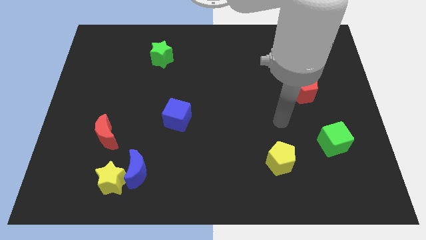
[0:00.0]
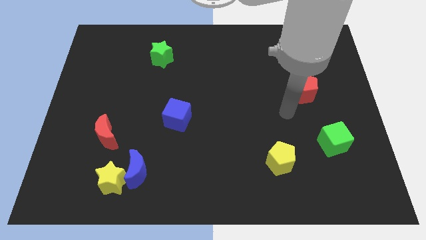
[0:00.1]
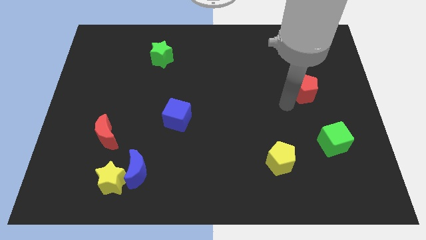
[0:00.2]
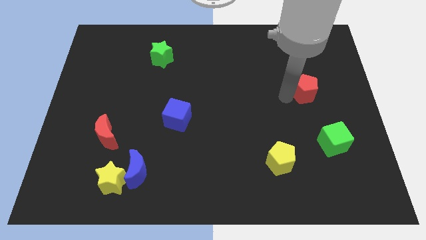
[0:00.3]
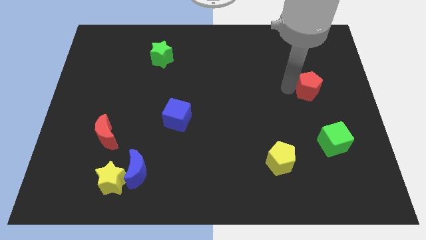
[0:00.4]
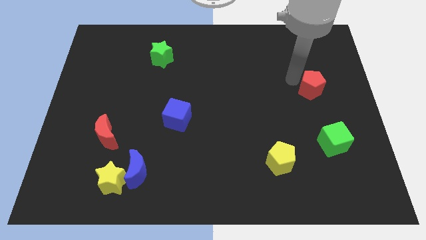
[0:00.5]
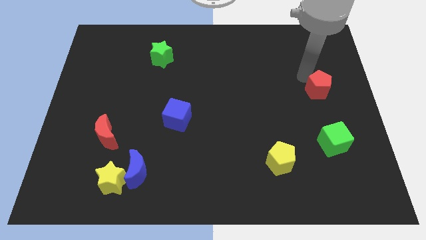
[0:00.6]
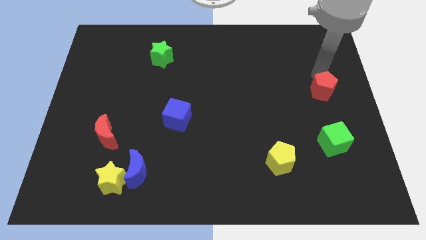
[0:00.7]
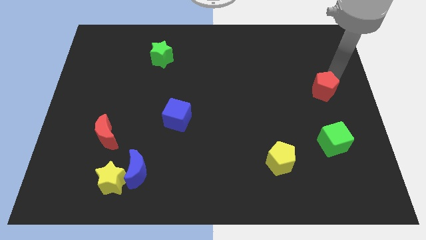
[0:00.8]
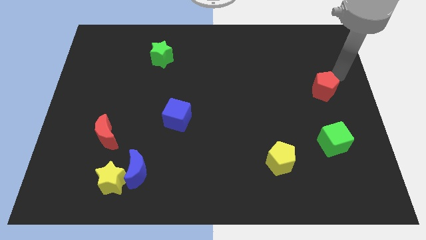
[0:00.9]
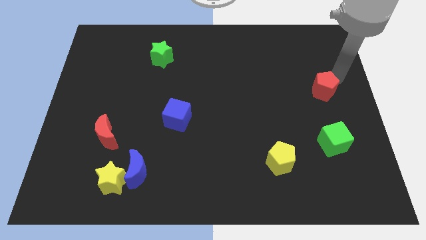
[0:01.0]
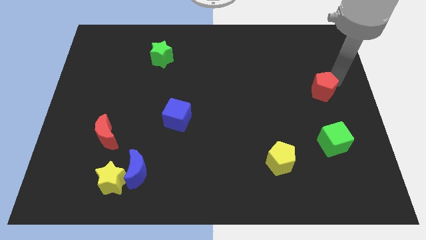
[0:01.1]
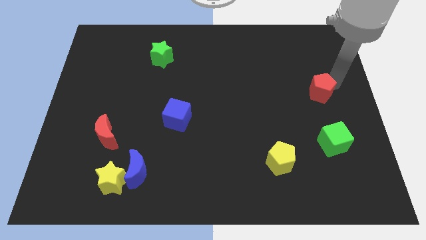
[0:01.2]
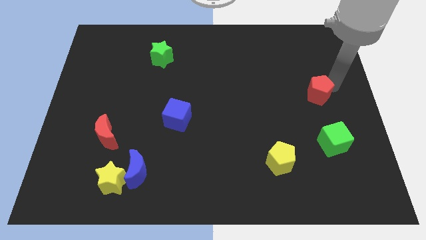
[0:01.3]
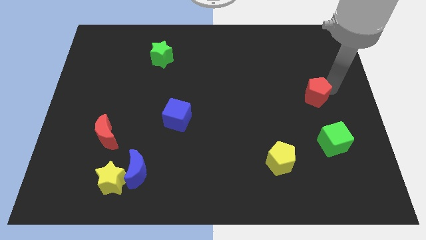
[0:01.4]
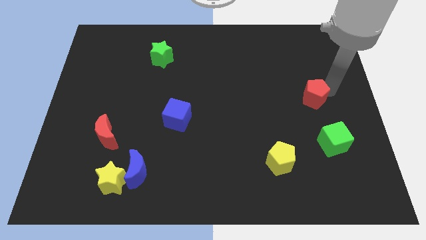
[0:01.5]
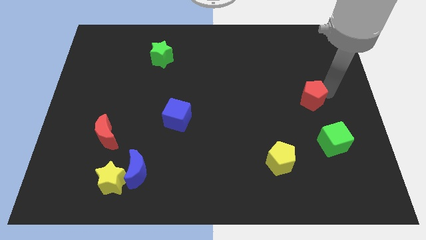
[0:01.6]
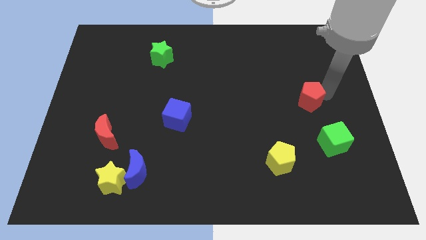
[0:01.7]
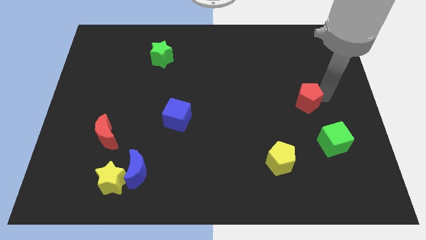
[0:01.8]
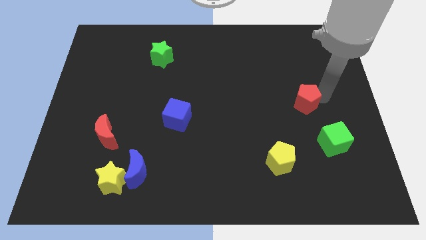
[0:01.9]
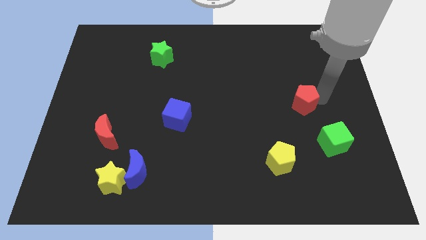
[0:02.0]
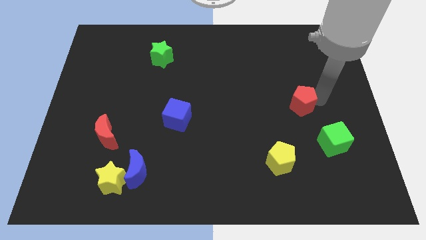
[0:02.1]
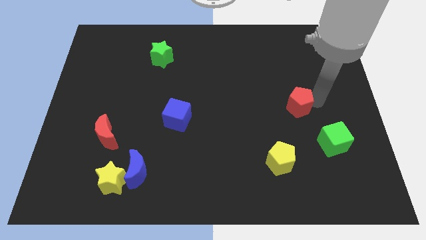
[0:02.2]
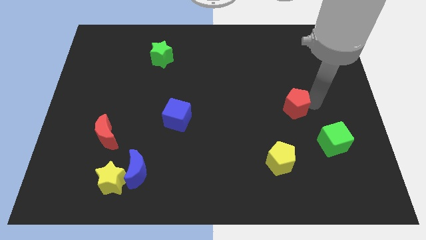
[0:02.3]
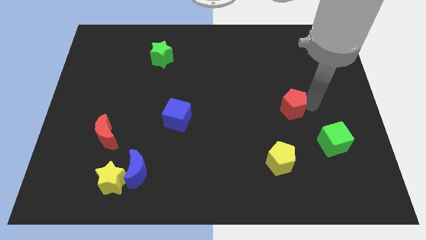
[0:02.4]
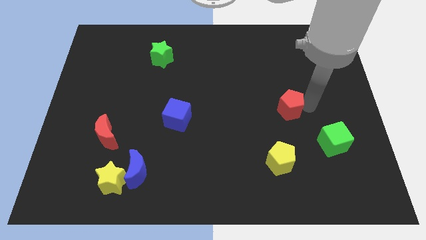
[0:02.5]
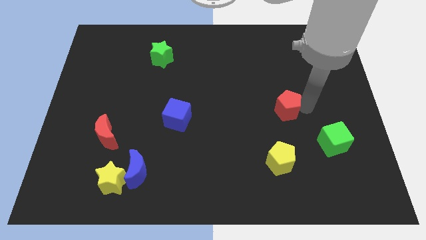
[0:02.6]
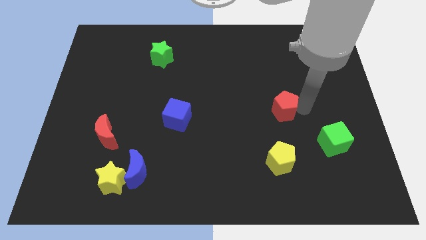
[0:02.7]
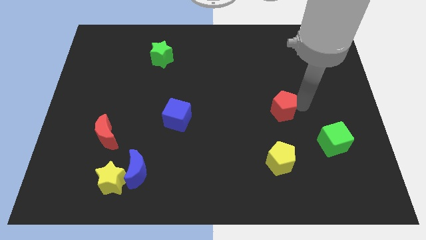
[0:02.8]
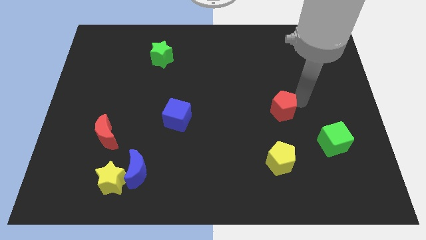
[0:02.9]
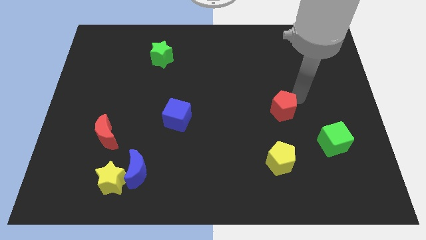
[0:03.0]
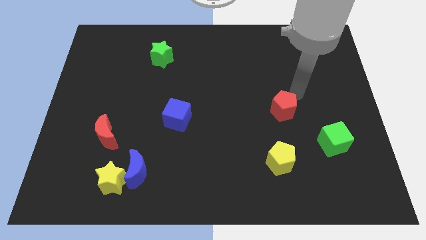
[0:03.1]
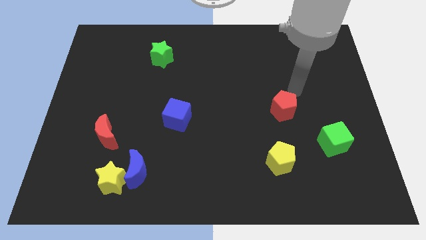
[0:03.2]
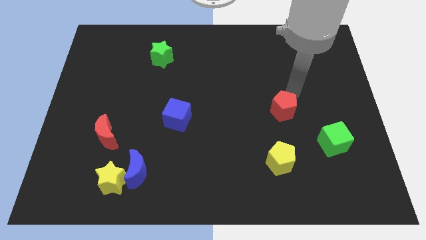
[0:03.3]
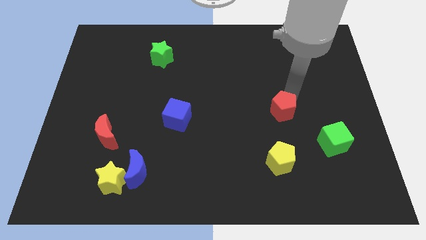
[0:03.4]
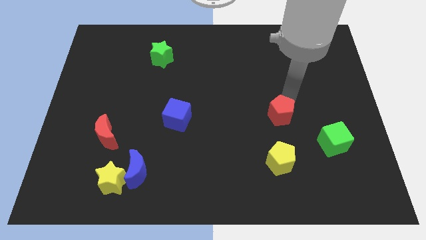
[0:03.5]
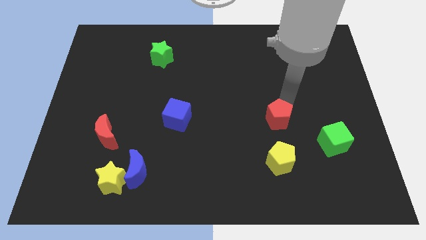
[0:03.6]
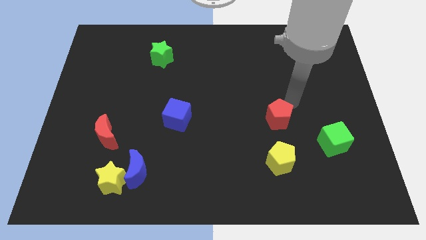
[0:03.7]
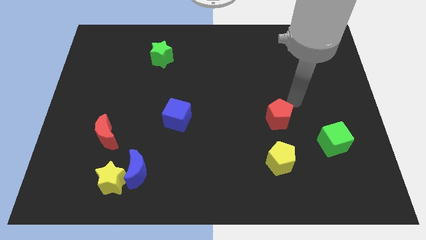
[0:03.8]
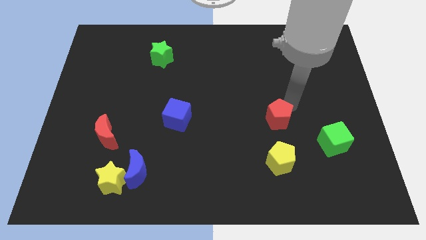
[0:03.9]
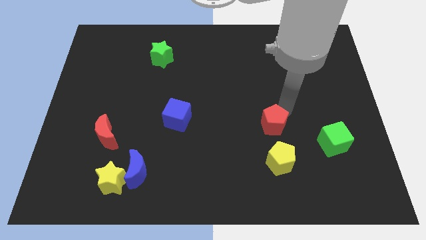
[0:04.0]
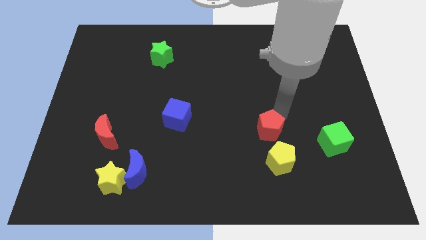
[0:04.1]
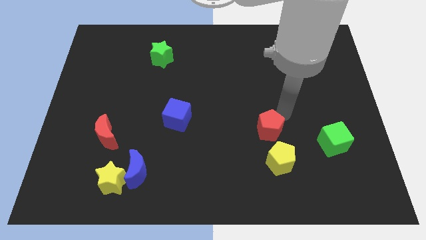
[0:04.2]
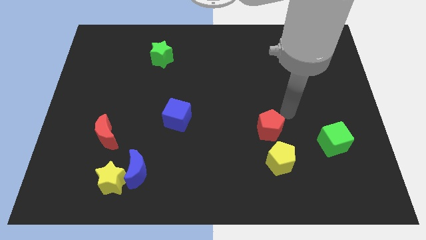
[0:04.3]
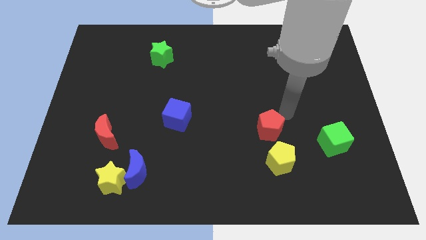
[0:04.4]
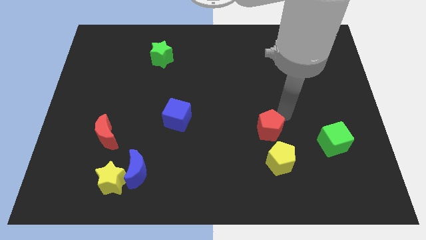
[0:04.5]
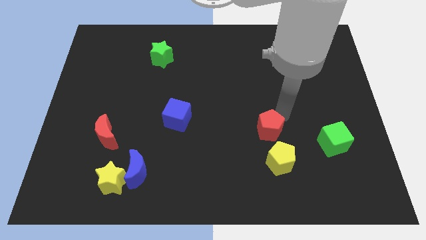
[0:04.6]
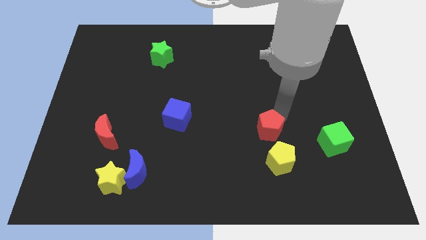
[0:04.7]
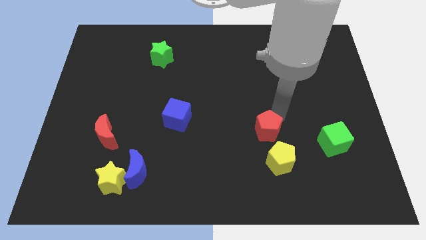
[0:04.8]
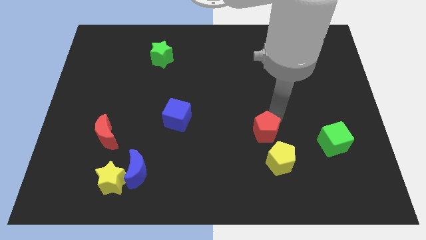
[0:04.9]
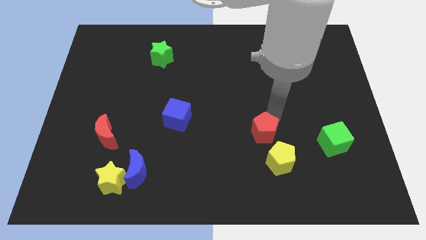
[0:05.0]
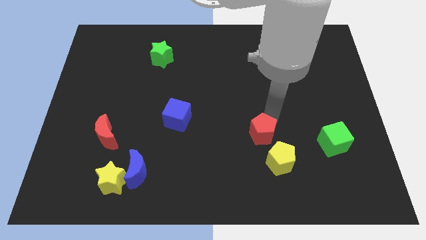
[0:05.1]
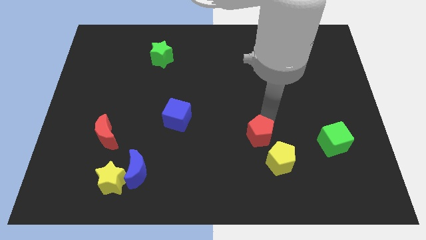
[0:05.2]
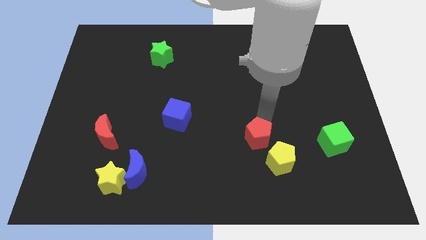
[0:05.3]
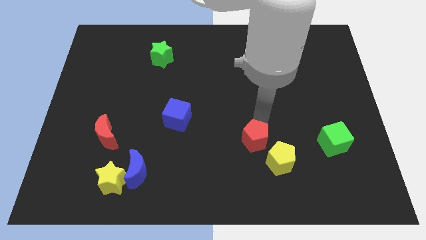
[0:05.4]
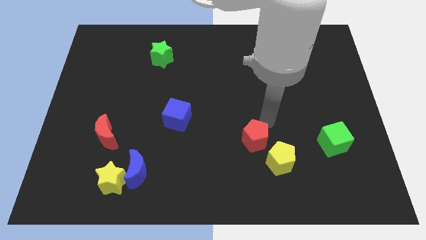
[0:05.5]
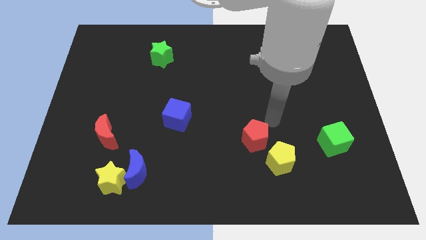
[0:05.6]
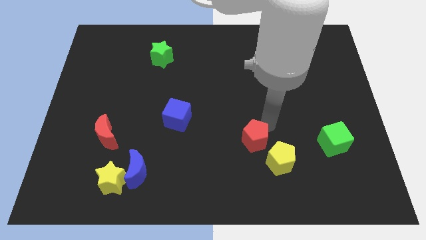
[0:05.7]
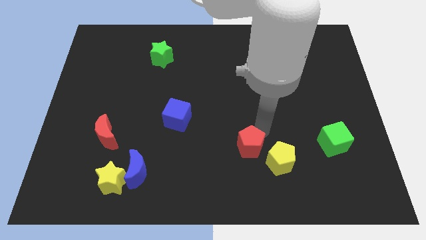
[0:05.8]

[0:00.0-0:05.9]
move the red pentagon to the left side of the yellow pentagon

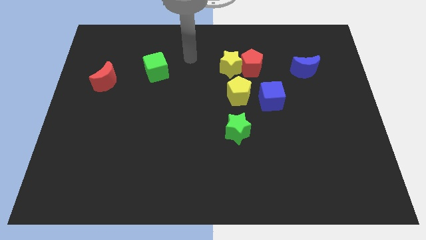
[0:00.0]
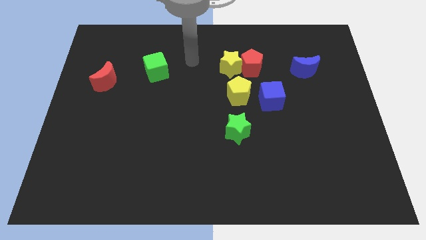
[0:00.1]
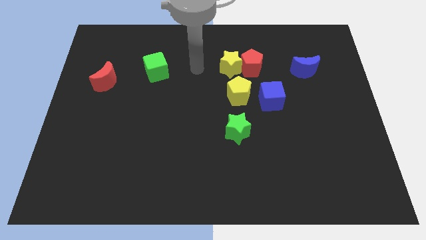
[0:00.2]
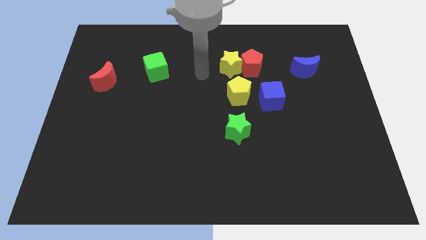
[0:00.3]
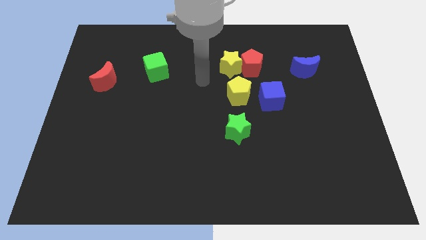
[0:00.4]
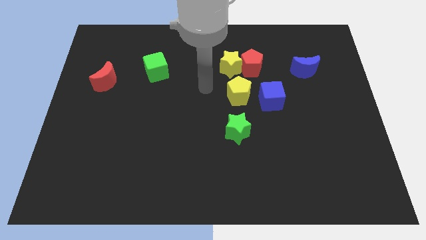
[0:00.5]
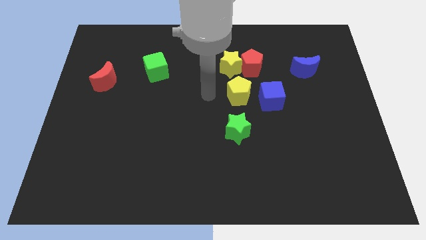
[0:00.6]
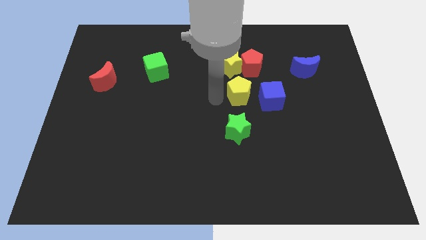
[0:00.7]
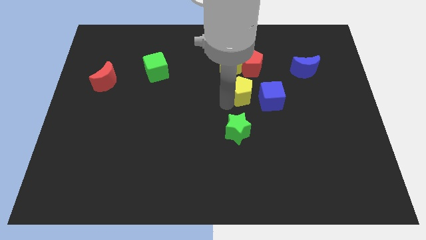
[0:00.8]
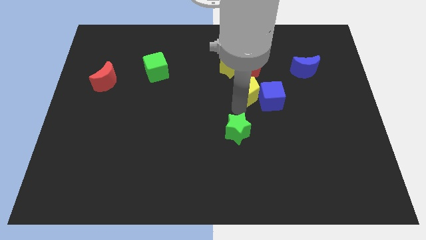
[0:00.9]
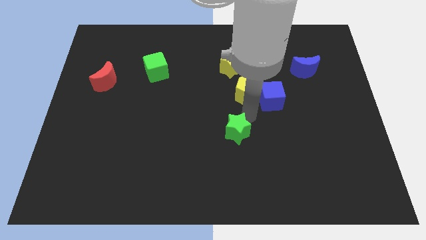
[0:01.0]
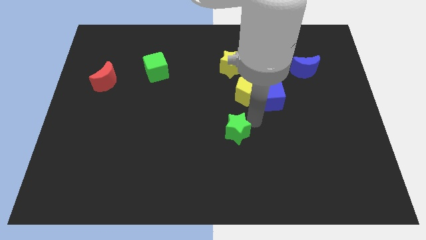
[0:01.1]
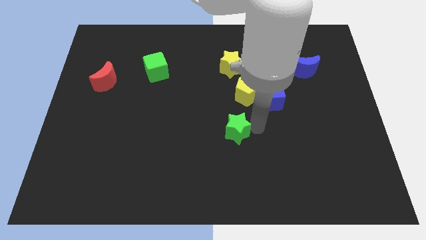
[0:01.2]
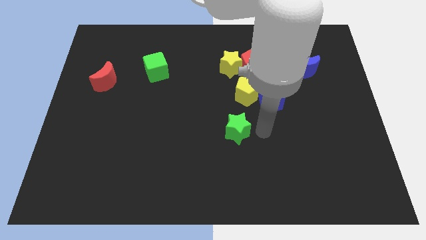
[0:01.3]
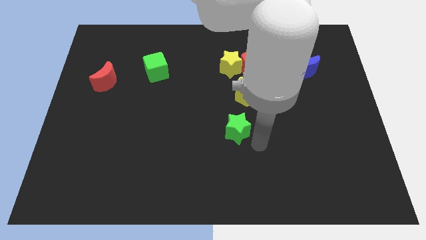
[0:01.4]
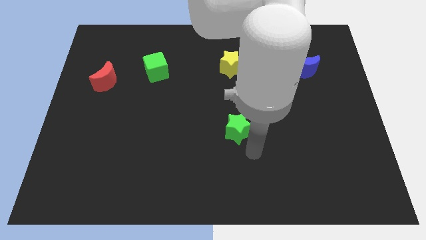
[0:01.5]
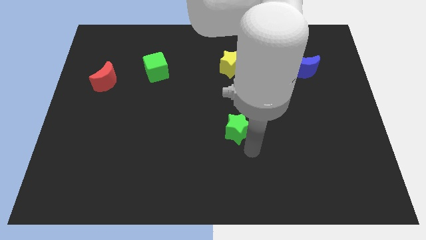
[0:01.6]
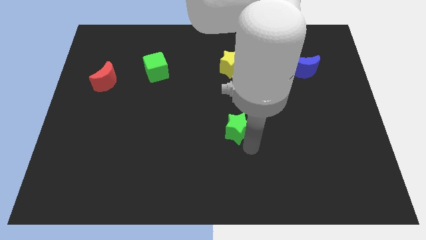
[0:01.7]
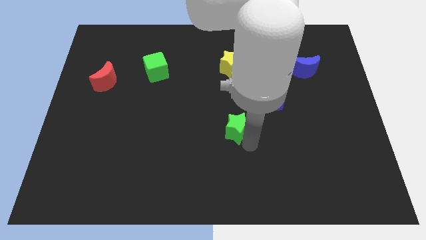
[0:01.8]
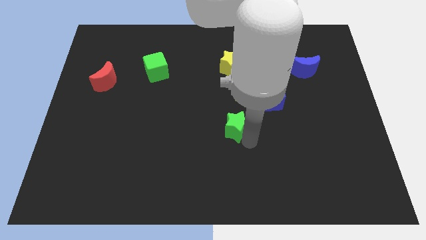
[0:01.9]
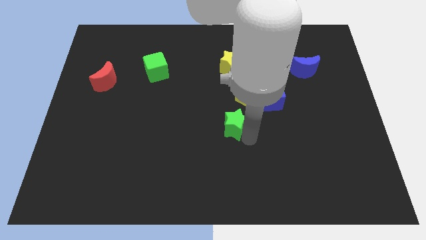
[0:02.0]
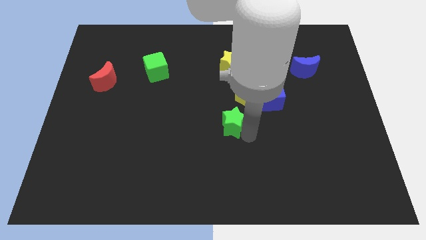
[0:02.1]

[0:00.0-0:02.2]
move the green star diagonally down and to the left of the yellow pentagon

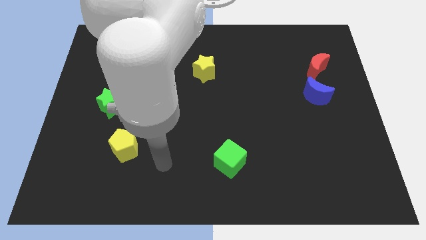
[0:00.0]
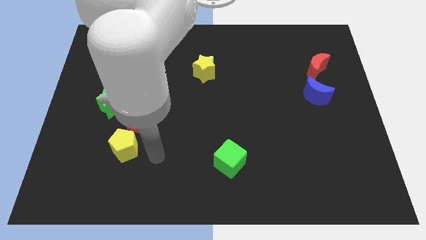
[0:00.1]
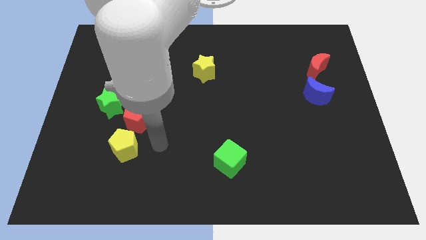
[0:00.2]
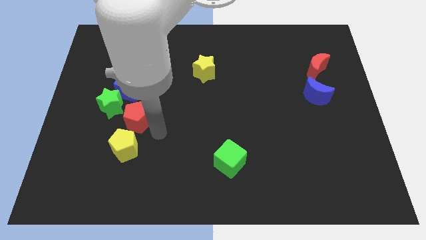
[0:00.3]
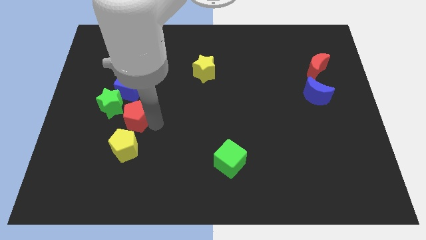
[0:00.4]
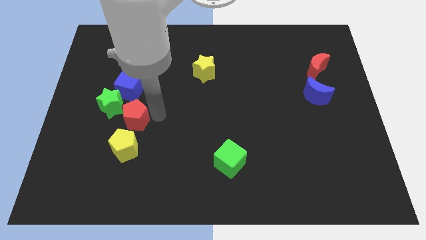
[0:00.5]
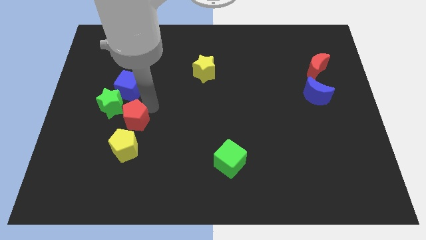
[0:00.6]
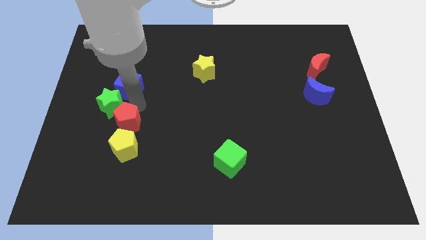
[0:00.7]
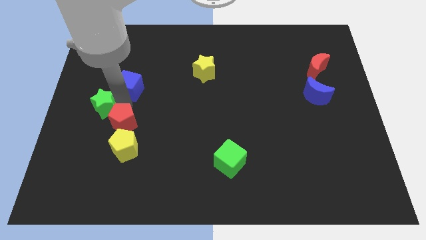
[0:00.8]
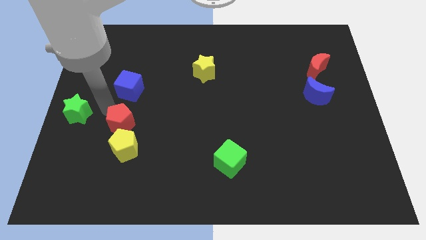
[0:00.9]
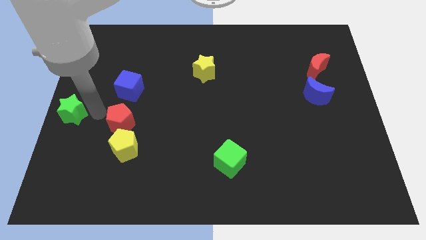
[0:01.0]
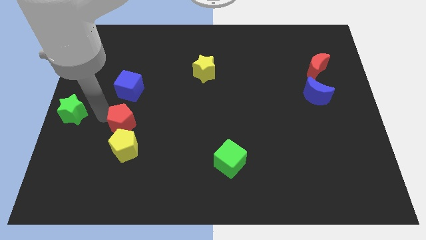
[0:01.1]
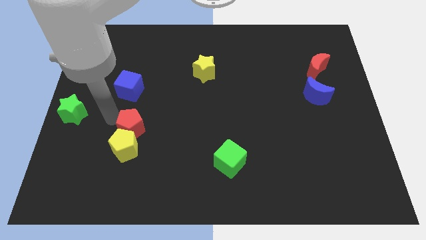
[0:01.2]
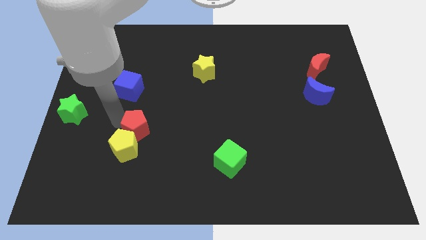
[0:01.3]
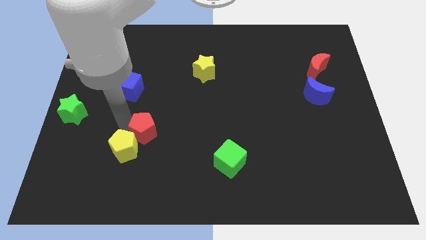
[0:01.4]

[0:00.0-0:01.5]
slide the red pentagon to the right of the yellow pentagon
